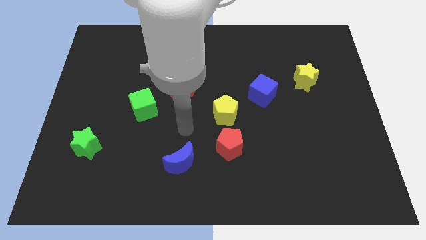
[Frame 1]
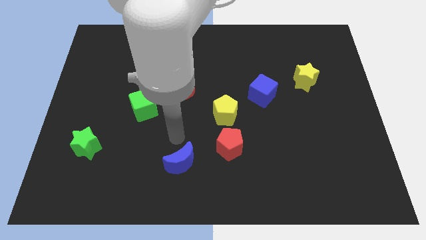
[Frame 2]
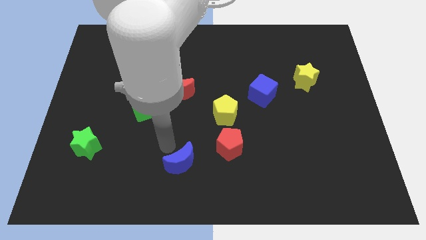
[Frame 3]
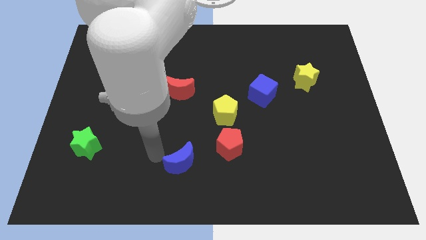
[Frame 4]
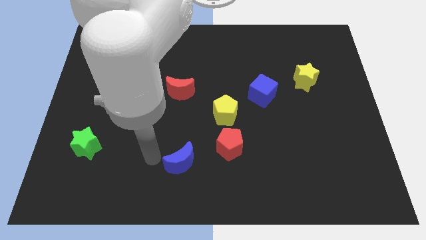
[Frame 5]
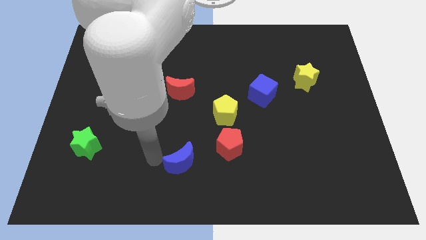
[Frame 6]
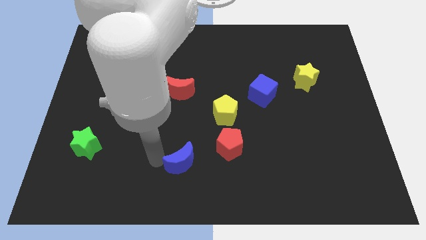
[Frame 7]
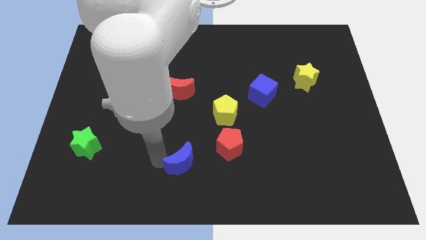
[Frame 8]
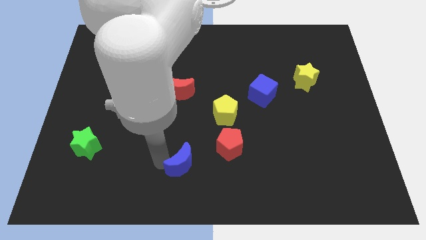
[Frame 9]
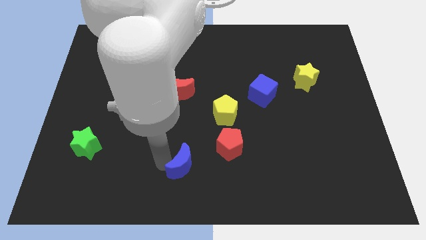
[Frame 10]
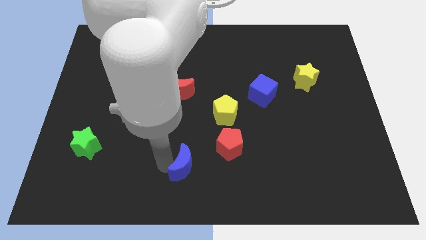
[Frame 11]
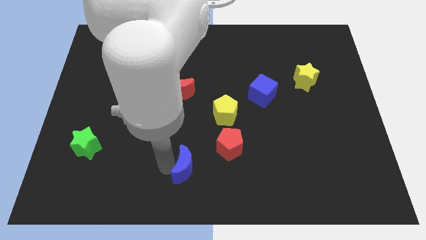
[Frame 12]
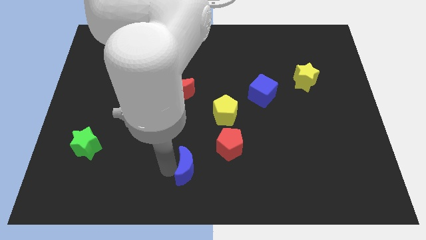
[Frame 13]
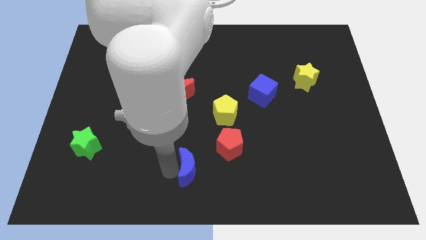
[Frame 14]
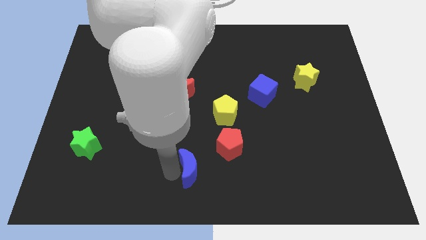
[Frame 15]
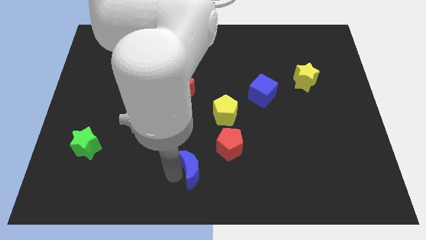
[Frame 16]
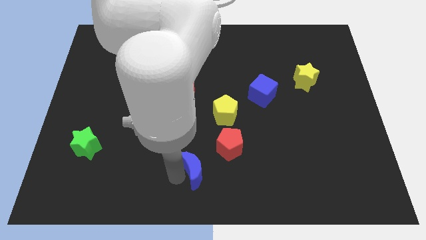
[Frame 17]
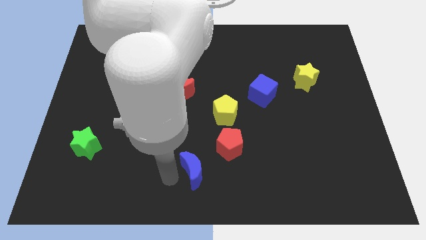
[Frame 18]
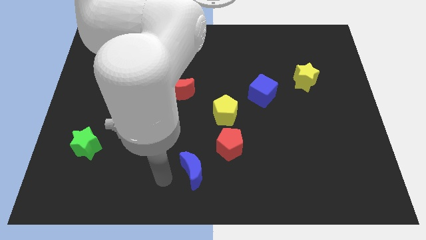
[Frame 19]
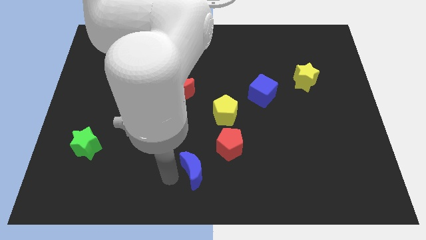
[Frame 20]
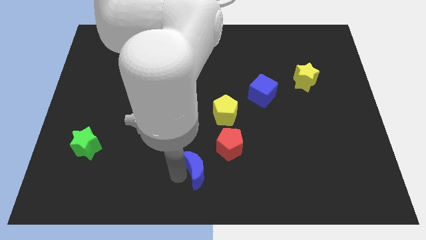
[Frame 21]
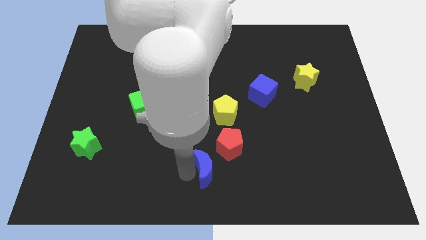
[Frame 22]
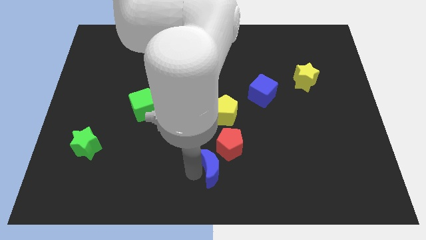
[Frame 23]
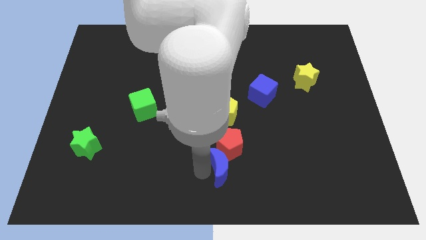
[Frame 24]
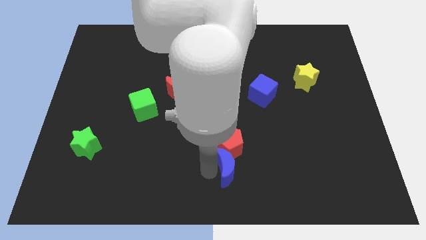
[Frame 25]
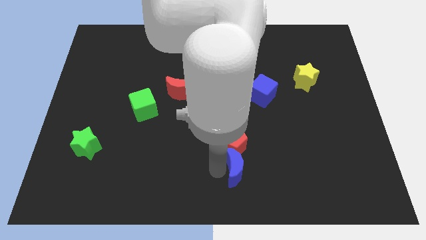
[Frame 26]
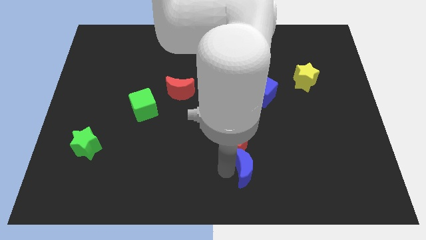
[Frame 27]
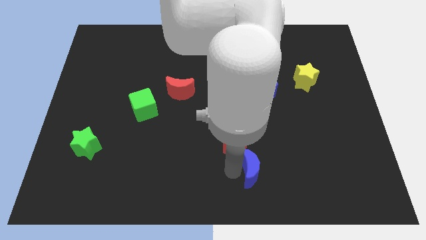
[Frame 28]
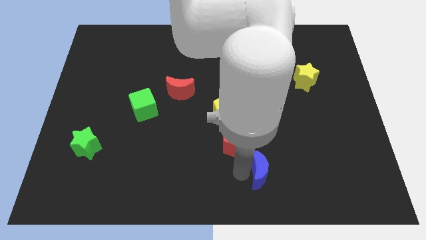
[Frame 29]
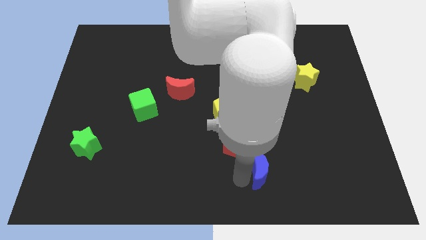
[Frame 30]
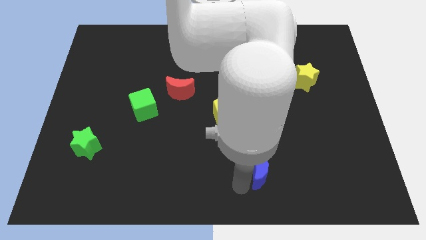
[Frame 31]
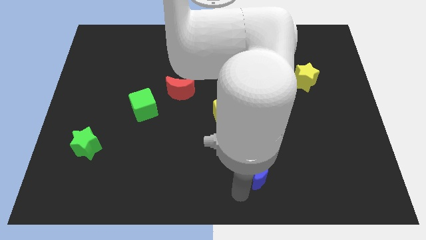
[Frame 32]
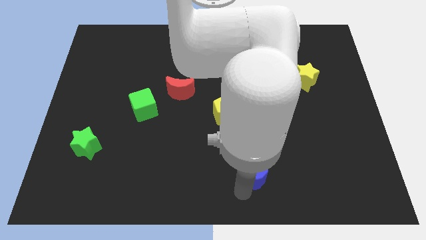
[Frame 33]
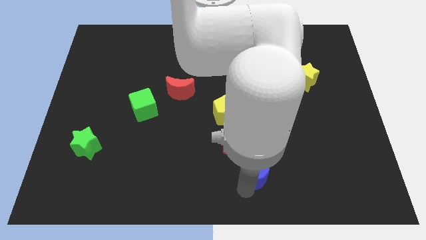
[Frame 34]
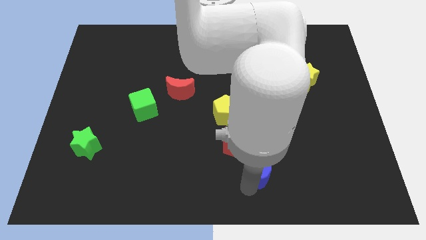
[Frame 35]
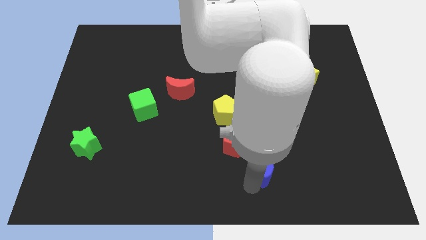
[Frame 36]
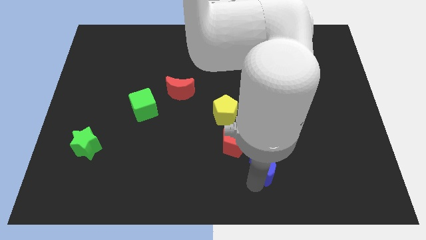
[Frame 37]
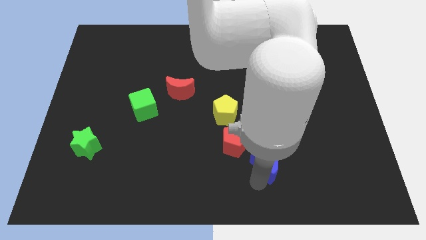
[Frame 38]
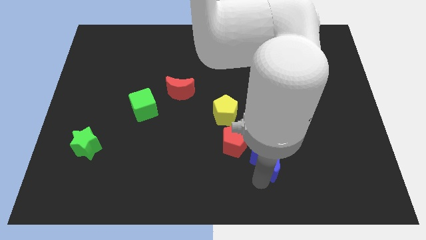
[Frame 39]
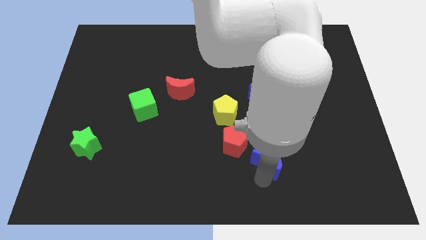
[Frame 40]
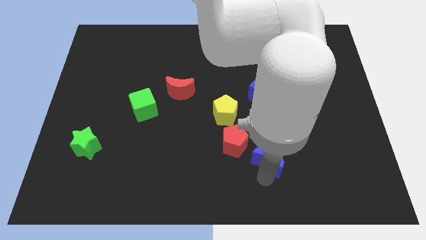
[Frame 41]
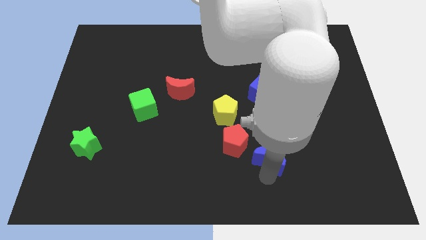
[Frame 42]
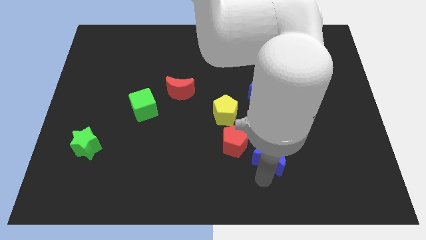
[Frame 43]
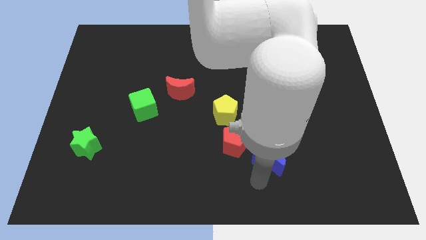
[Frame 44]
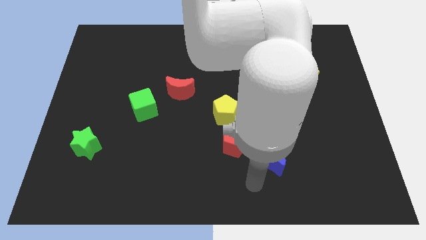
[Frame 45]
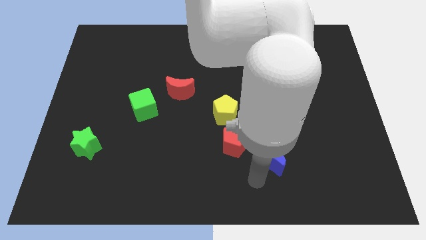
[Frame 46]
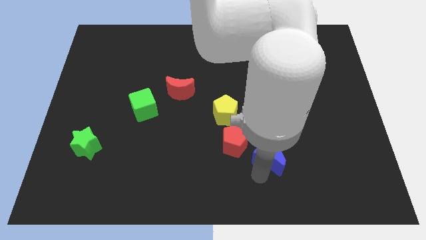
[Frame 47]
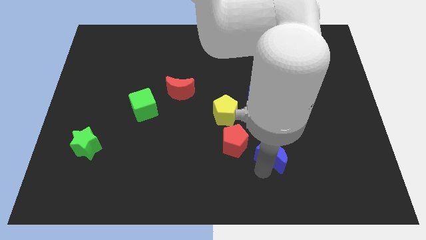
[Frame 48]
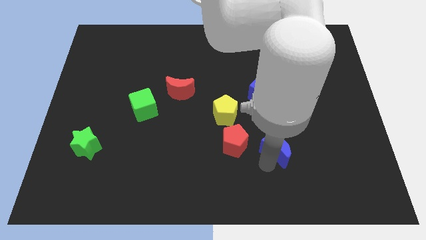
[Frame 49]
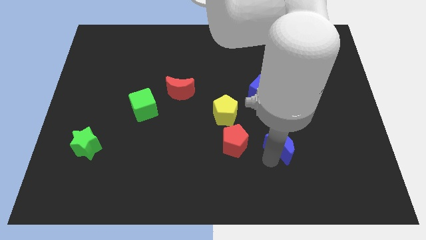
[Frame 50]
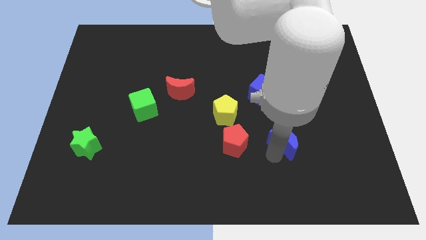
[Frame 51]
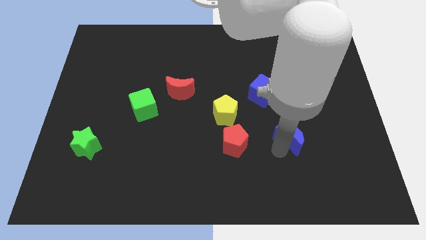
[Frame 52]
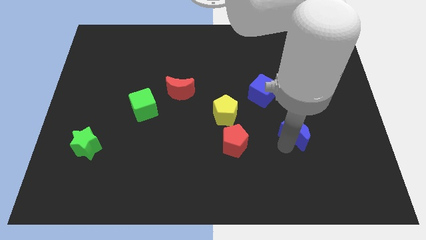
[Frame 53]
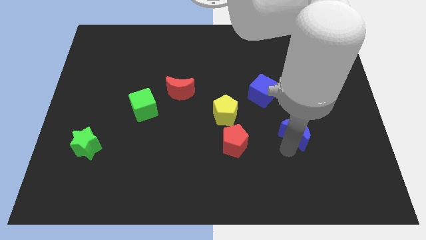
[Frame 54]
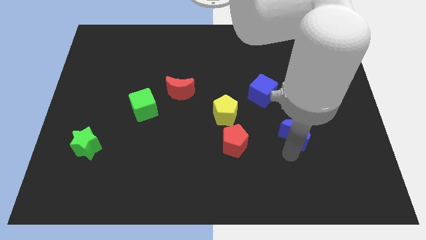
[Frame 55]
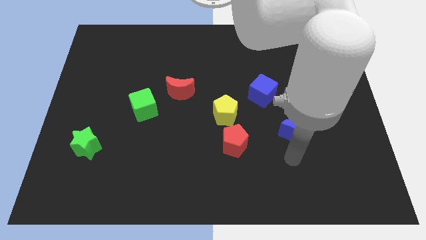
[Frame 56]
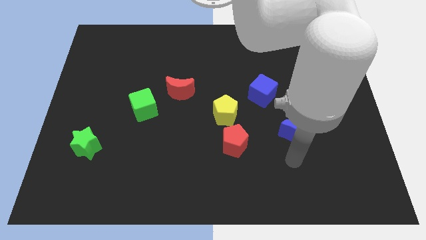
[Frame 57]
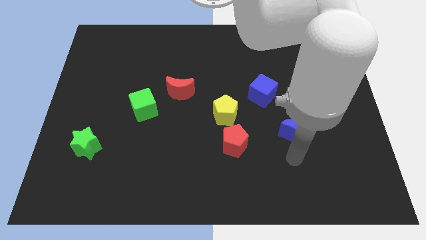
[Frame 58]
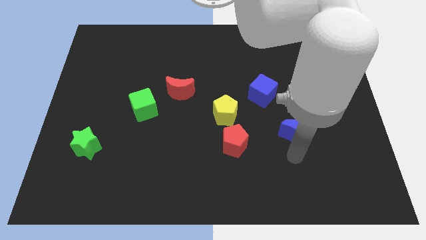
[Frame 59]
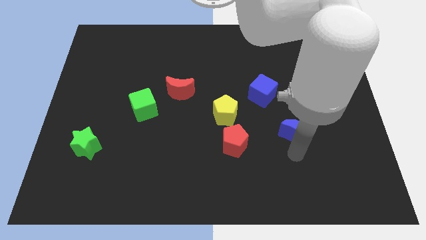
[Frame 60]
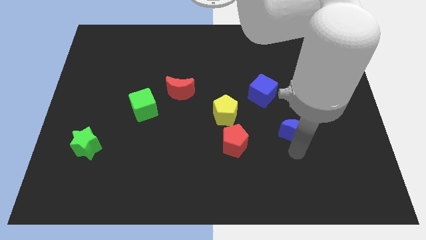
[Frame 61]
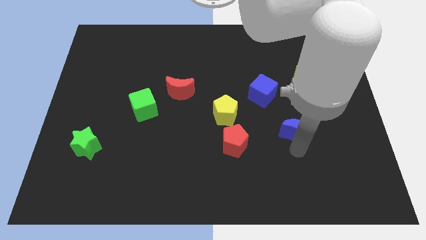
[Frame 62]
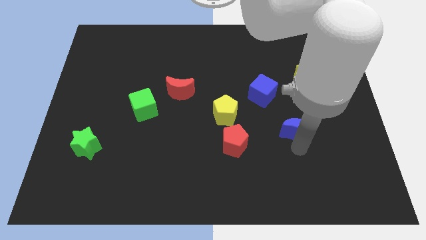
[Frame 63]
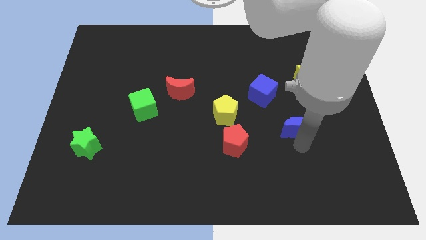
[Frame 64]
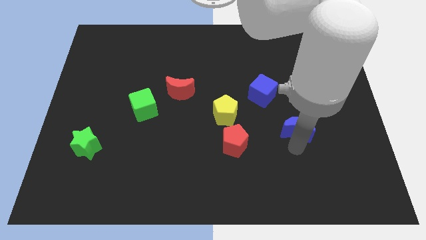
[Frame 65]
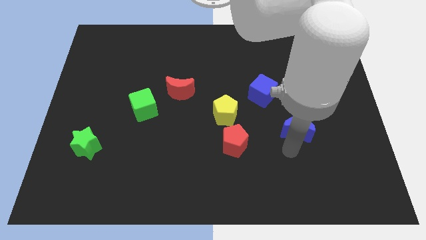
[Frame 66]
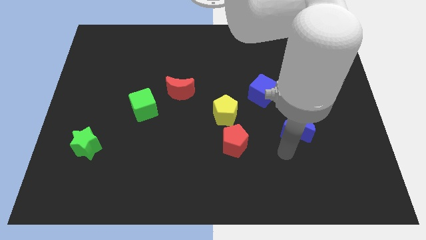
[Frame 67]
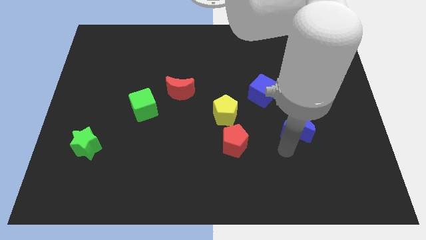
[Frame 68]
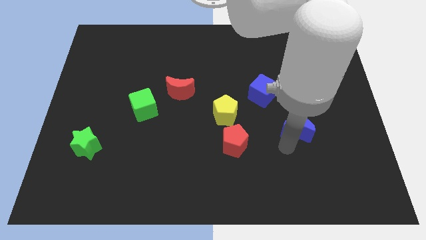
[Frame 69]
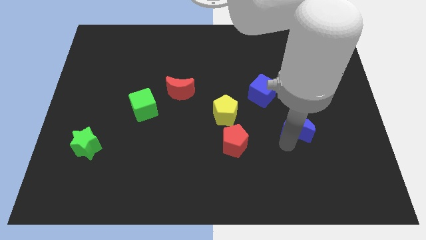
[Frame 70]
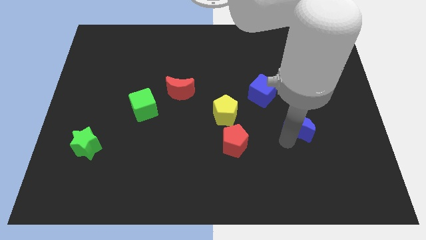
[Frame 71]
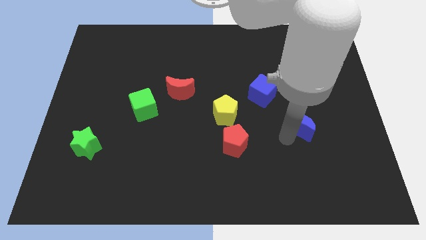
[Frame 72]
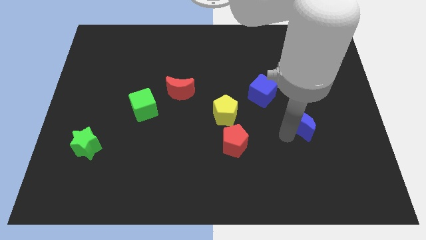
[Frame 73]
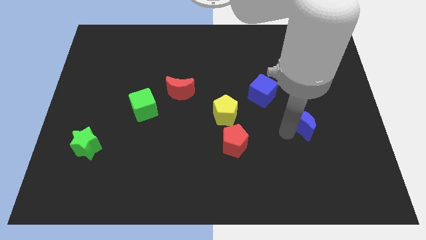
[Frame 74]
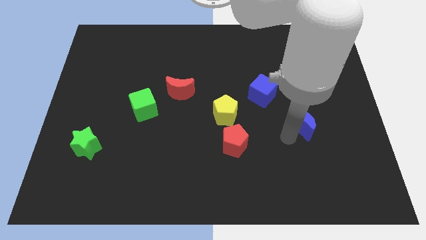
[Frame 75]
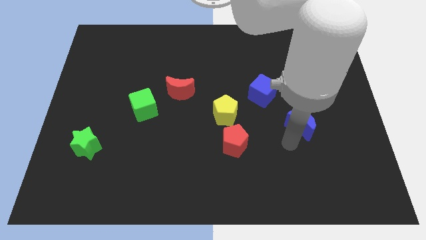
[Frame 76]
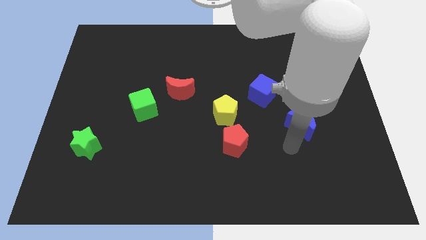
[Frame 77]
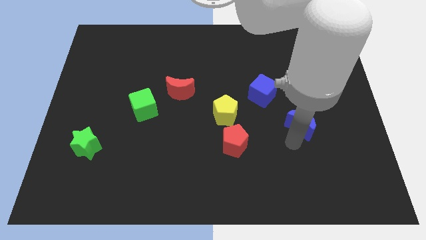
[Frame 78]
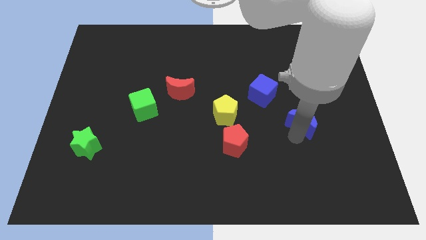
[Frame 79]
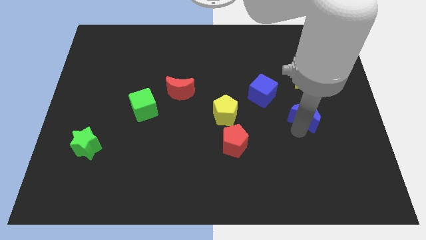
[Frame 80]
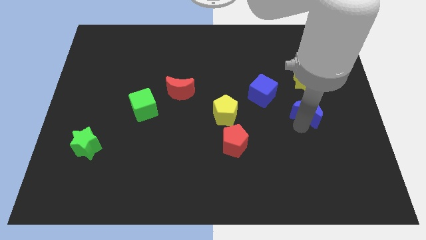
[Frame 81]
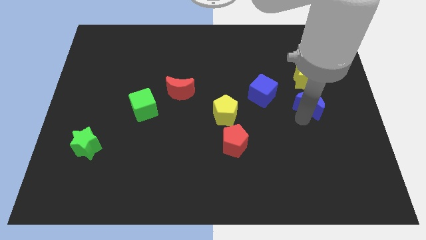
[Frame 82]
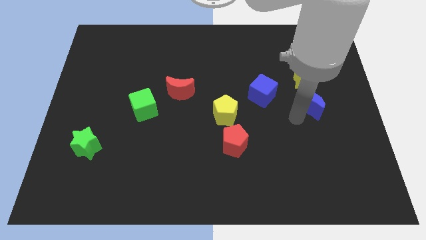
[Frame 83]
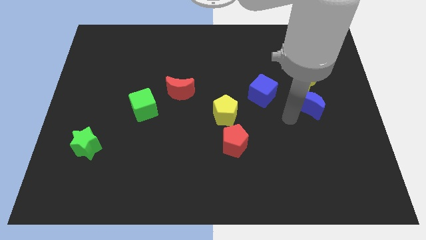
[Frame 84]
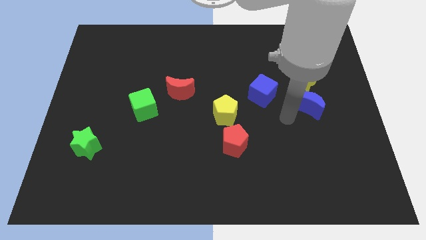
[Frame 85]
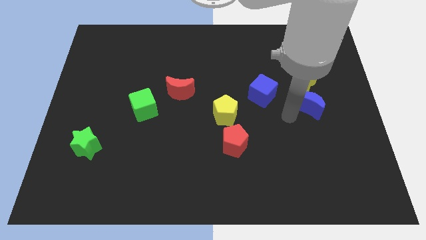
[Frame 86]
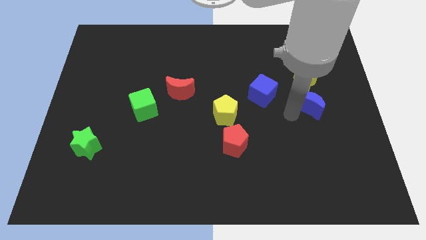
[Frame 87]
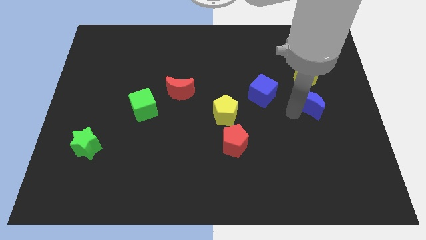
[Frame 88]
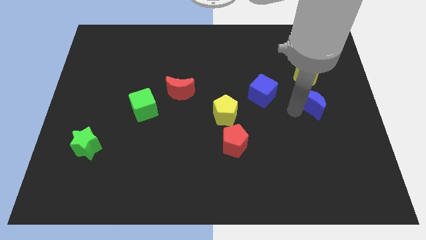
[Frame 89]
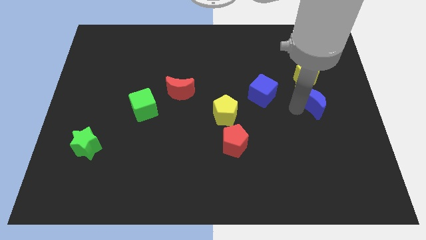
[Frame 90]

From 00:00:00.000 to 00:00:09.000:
put the blue moon to the bottom right of the yellow star
